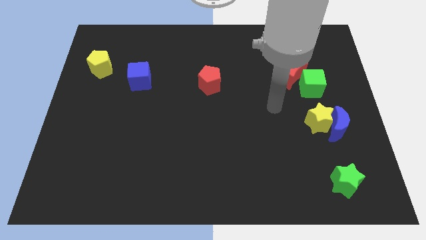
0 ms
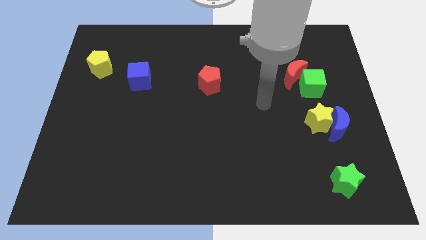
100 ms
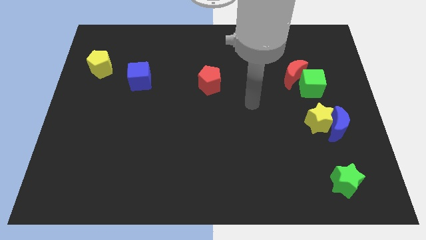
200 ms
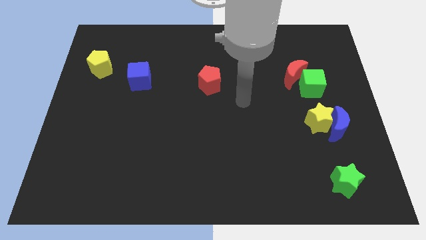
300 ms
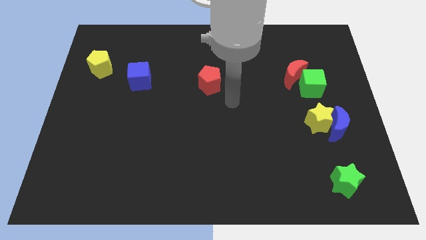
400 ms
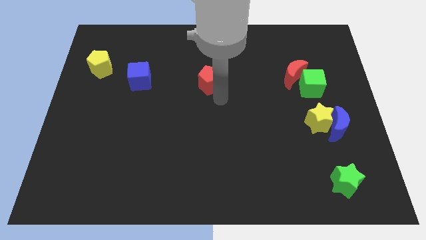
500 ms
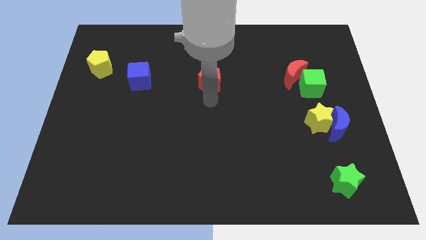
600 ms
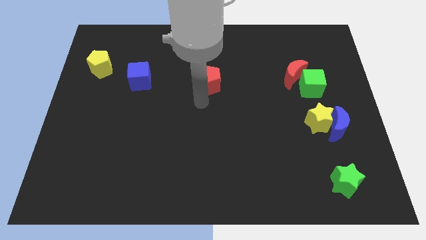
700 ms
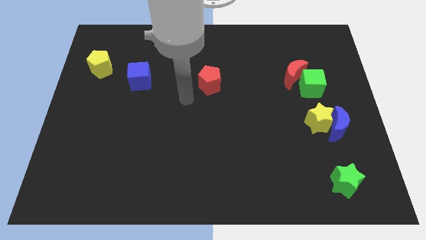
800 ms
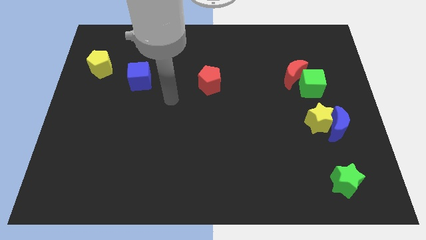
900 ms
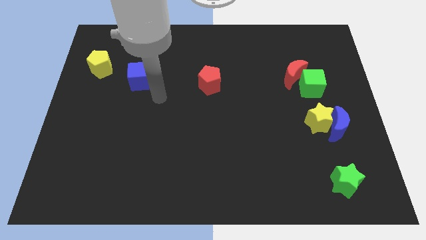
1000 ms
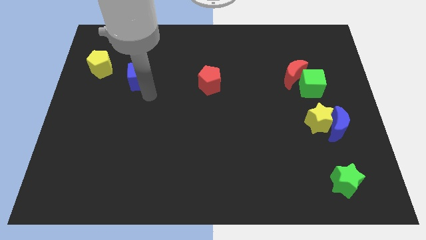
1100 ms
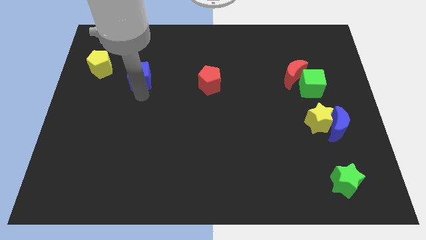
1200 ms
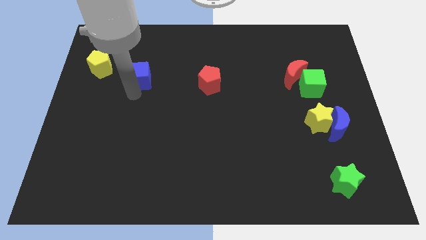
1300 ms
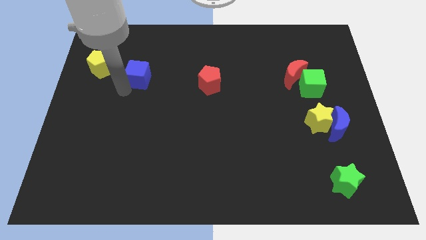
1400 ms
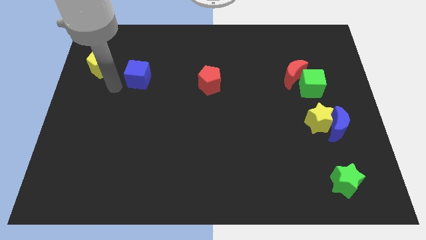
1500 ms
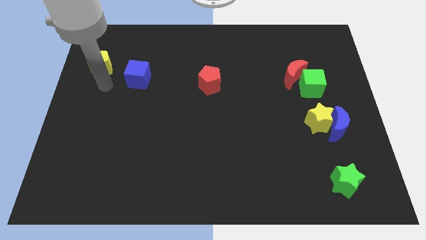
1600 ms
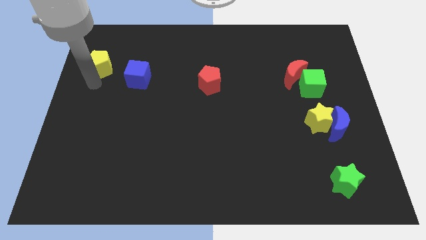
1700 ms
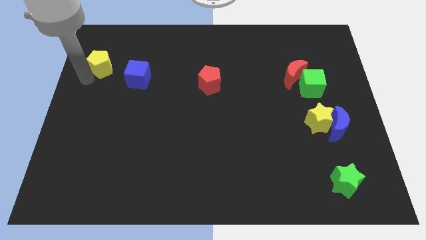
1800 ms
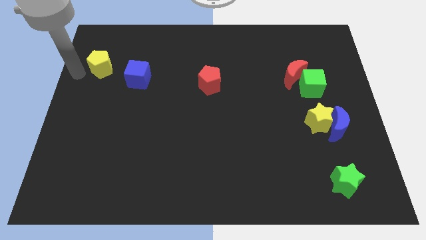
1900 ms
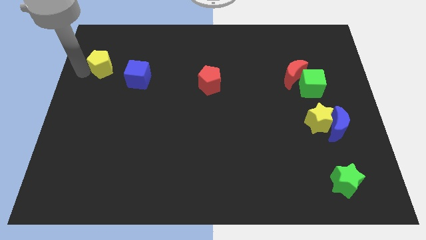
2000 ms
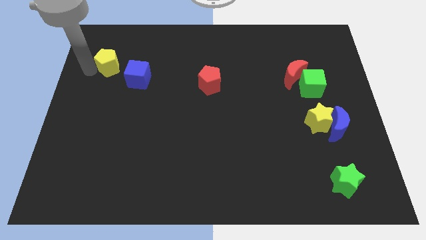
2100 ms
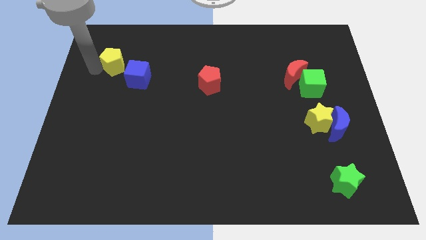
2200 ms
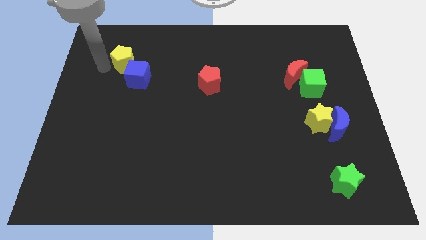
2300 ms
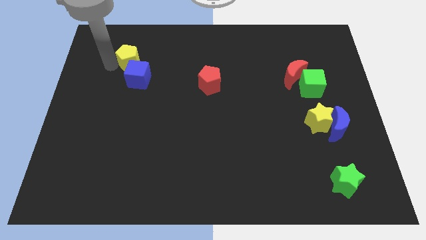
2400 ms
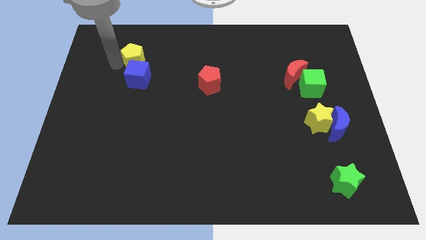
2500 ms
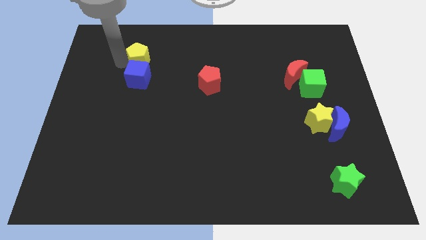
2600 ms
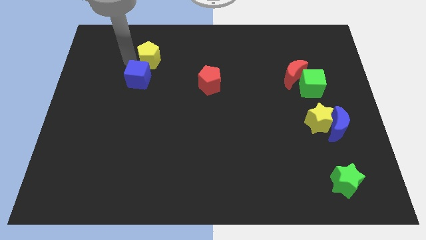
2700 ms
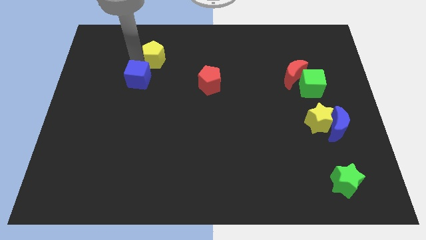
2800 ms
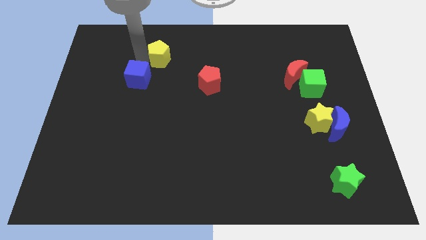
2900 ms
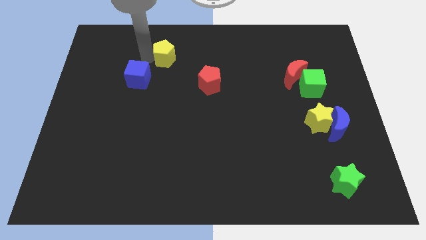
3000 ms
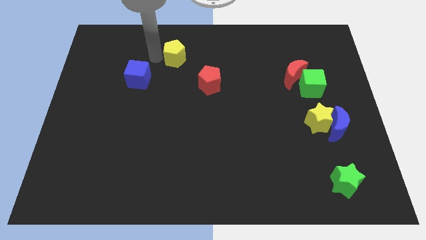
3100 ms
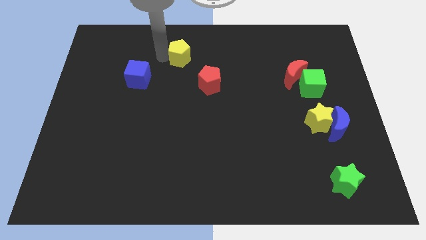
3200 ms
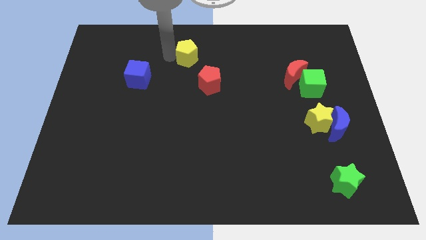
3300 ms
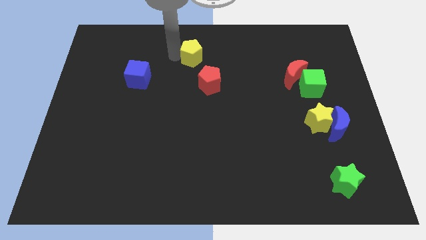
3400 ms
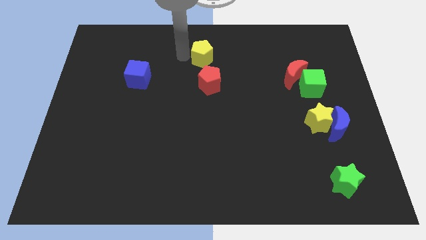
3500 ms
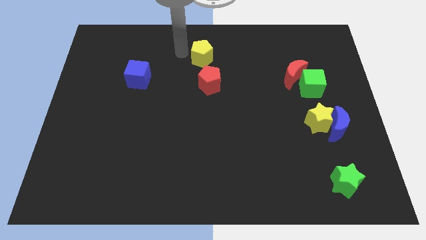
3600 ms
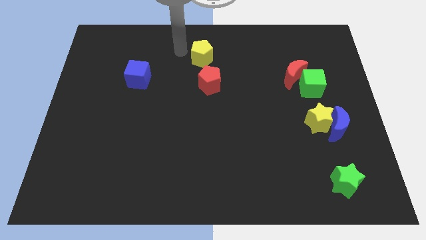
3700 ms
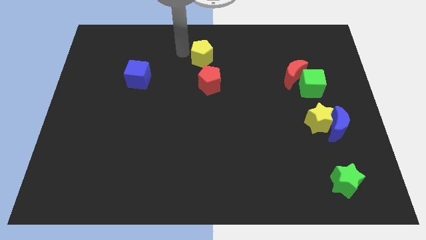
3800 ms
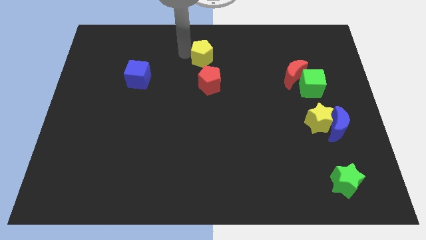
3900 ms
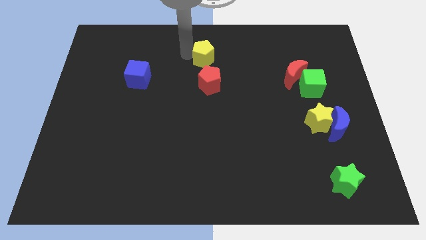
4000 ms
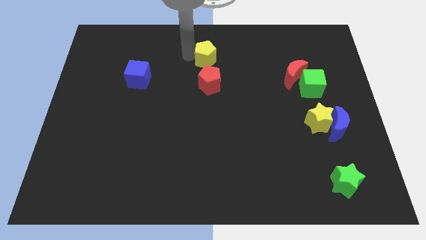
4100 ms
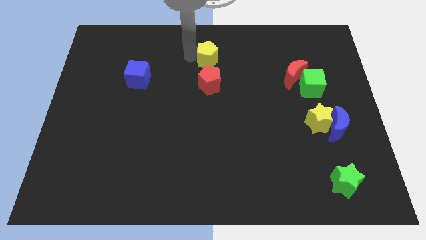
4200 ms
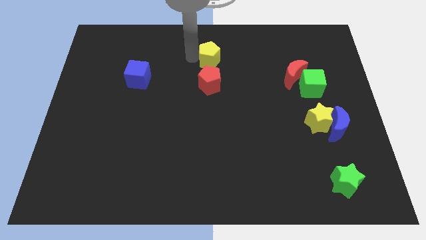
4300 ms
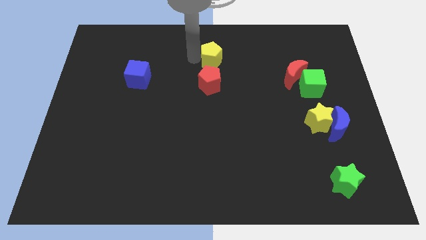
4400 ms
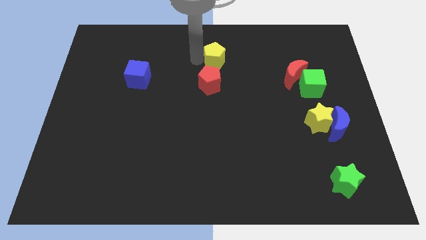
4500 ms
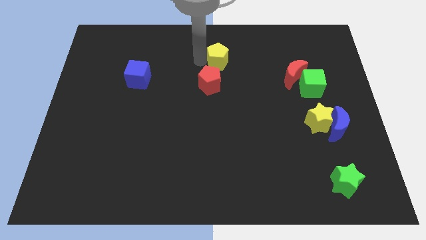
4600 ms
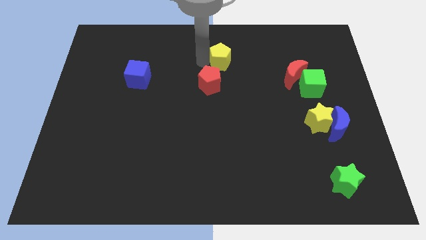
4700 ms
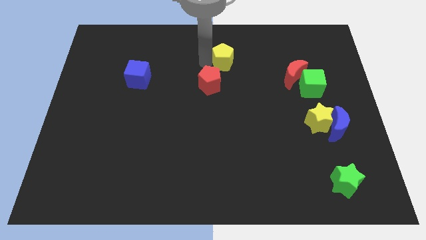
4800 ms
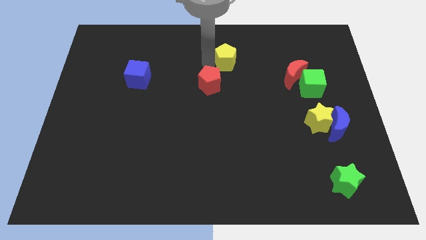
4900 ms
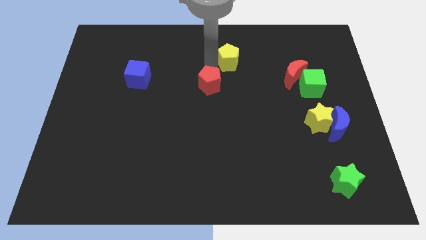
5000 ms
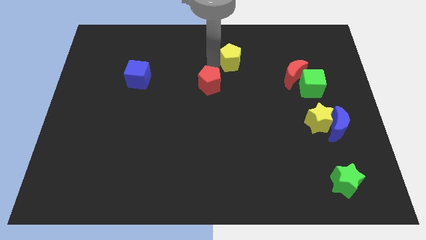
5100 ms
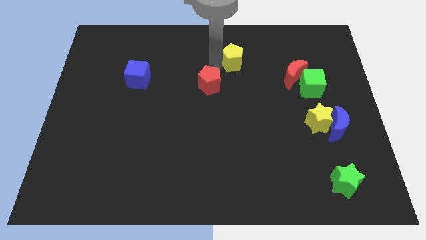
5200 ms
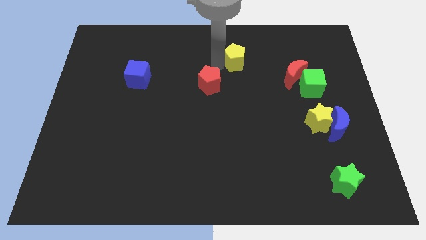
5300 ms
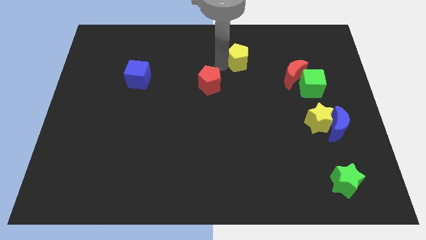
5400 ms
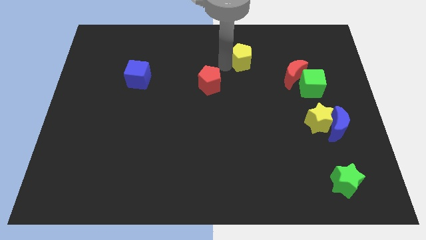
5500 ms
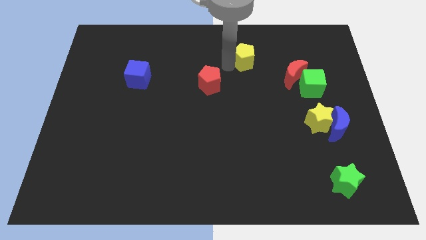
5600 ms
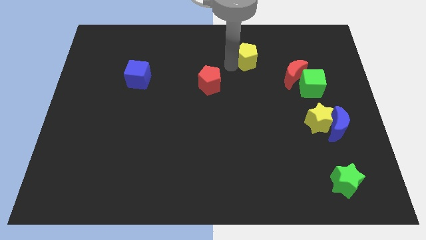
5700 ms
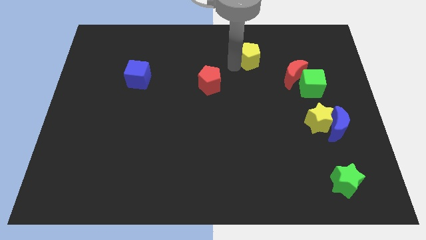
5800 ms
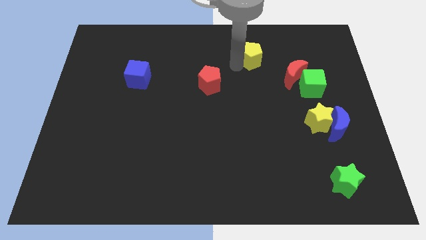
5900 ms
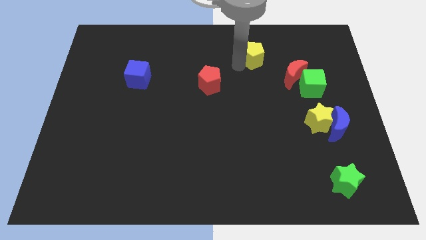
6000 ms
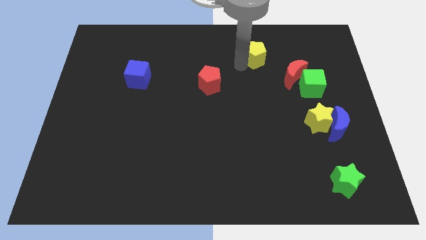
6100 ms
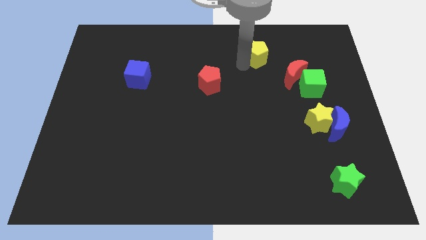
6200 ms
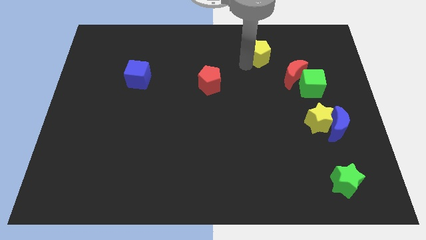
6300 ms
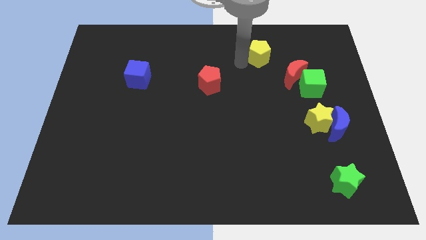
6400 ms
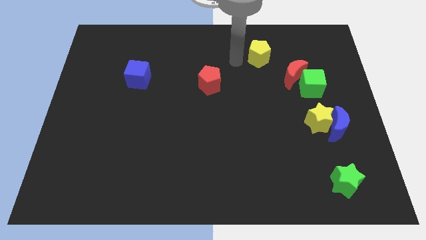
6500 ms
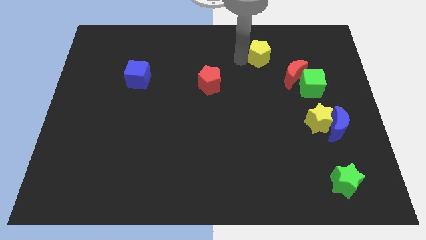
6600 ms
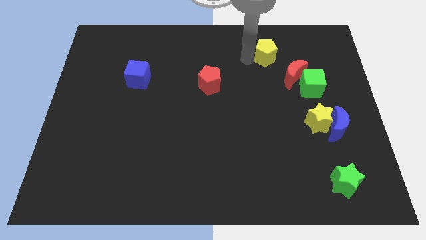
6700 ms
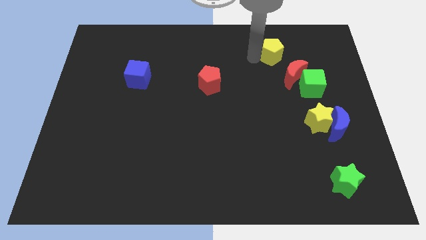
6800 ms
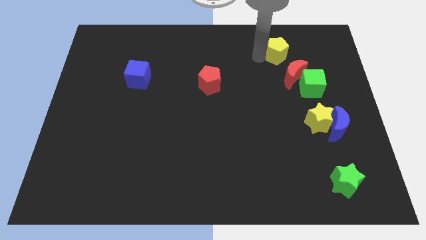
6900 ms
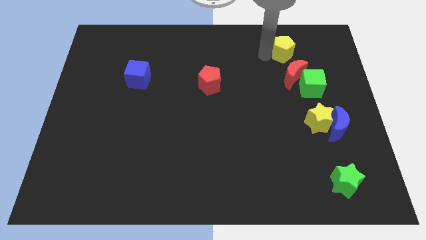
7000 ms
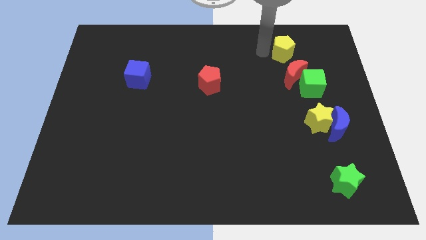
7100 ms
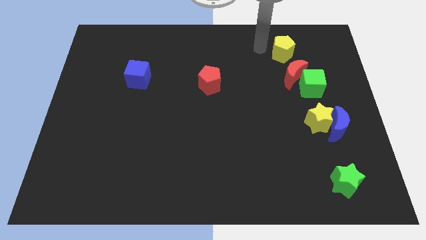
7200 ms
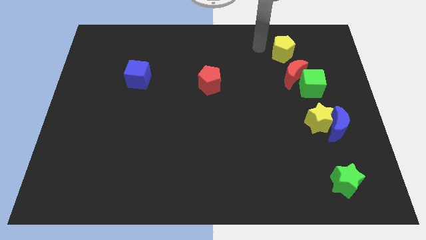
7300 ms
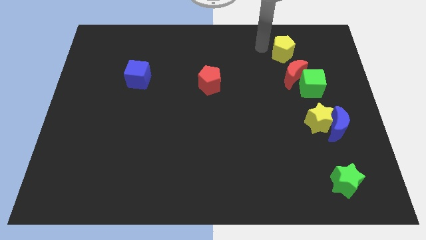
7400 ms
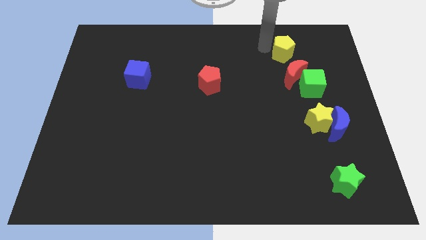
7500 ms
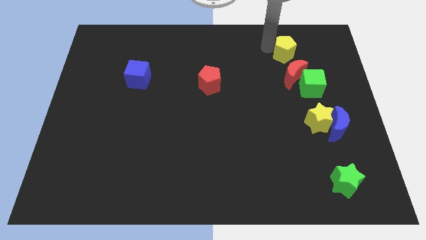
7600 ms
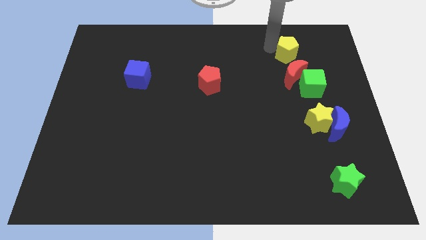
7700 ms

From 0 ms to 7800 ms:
slide the yellow pentagon above the green cube

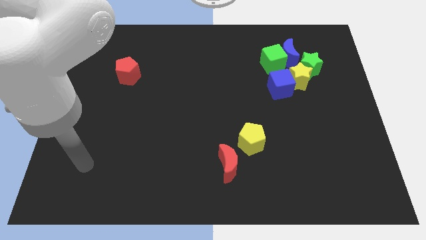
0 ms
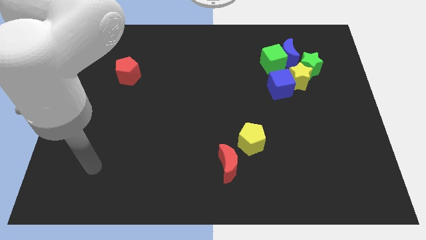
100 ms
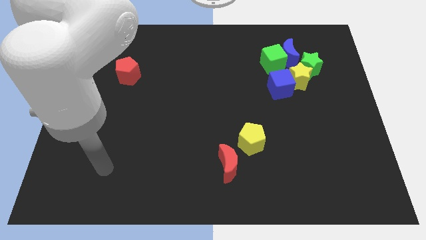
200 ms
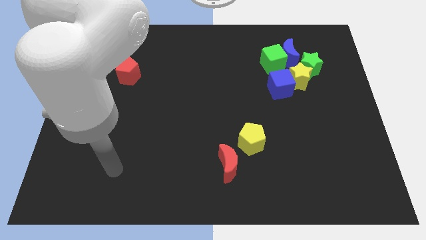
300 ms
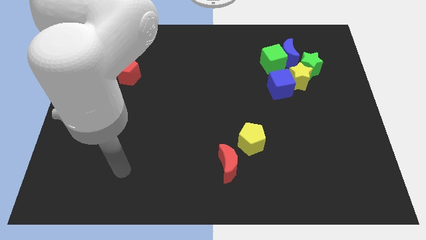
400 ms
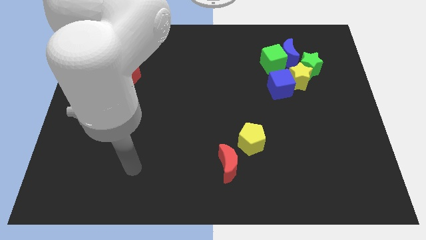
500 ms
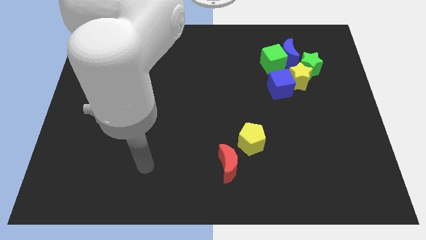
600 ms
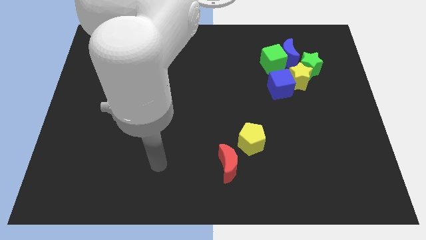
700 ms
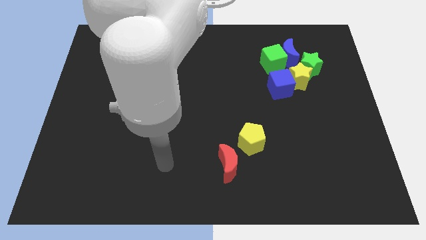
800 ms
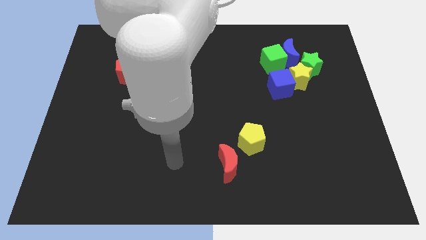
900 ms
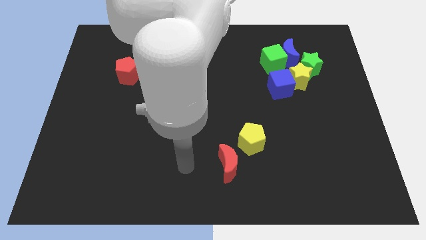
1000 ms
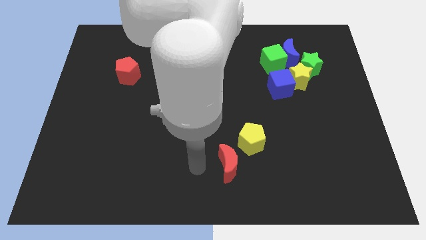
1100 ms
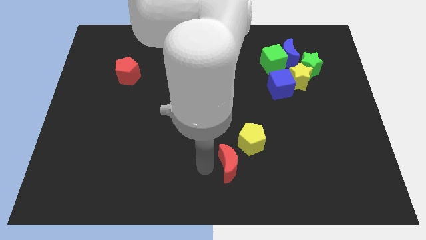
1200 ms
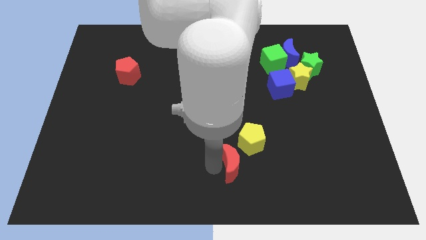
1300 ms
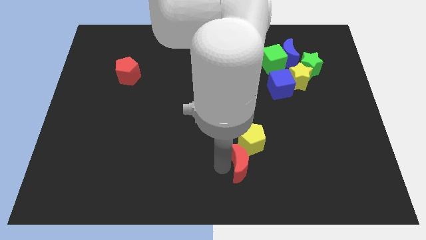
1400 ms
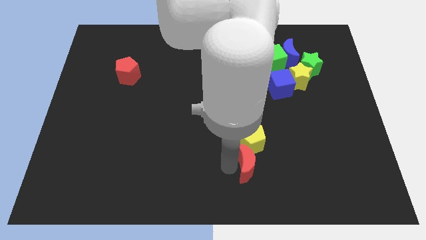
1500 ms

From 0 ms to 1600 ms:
move the red moon diagonally down and to the right of the yellow pentagon
